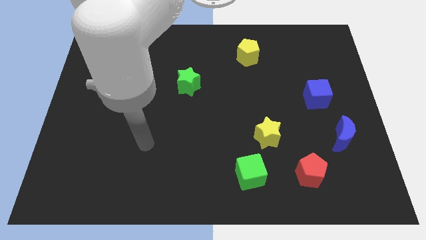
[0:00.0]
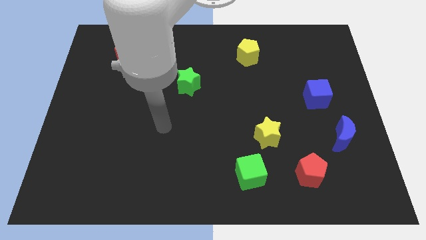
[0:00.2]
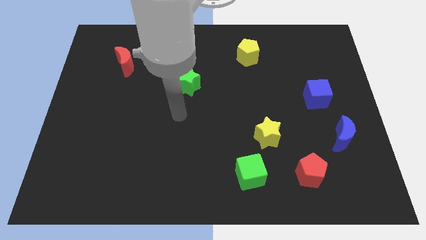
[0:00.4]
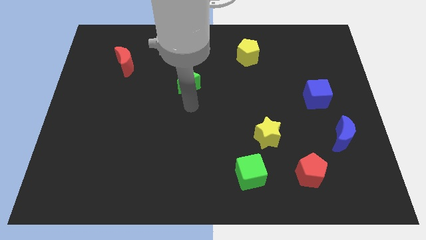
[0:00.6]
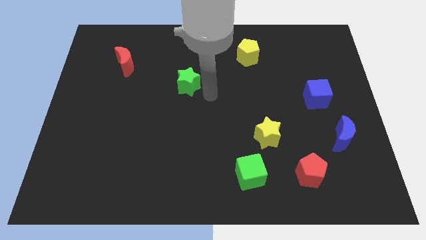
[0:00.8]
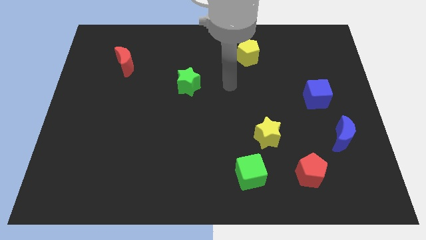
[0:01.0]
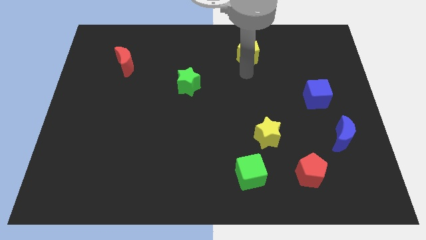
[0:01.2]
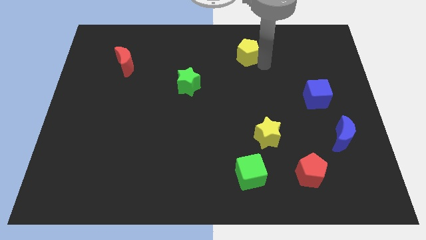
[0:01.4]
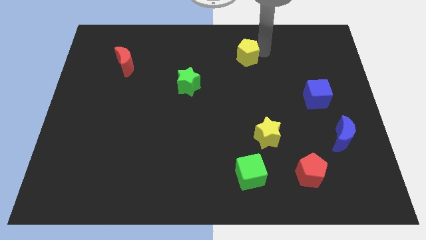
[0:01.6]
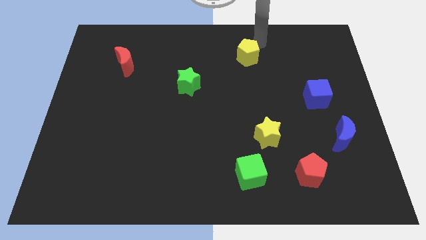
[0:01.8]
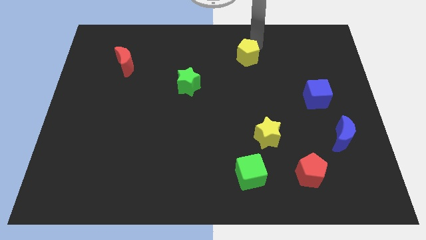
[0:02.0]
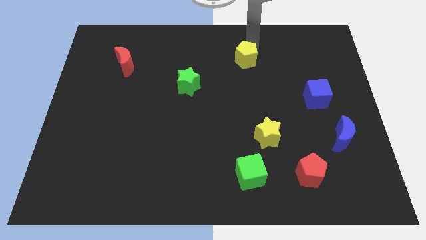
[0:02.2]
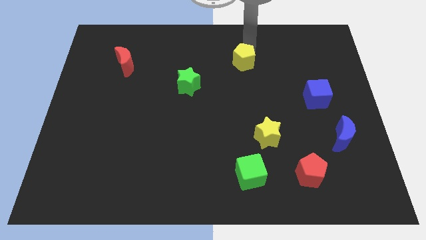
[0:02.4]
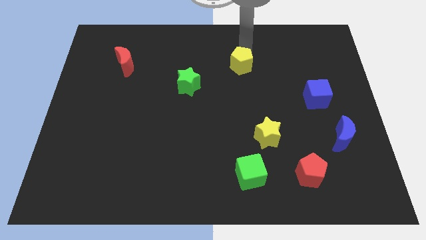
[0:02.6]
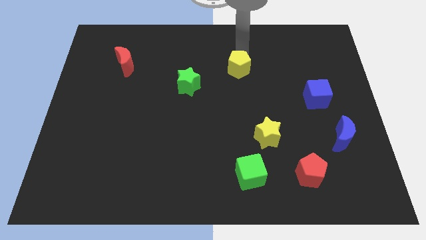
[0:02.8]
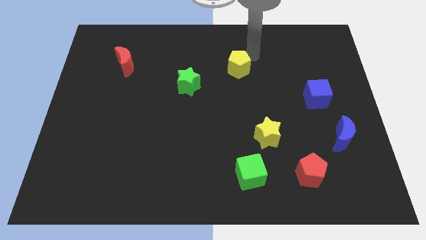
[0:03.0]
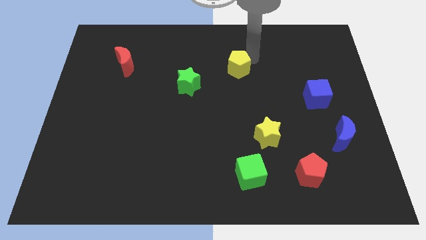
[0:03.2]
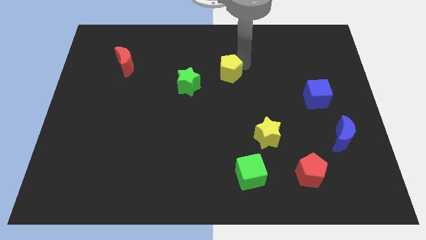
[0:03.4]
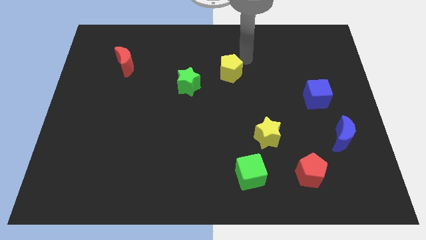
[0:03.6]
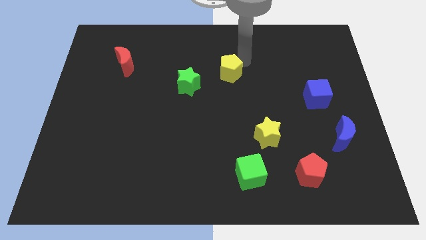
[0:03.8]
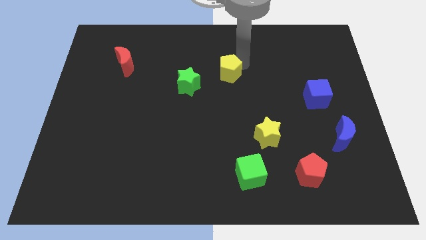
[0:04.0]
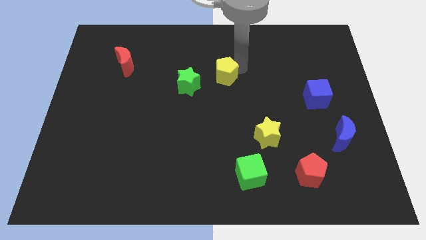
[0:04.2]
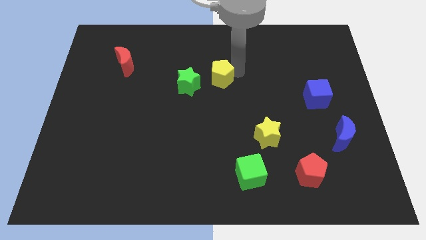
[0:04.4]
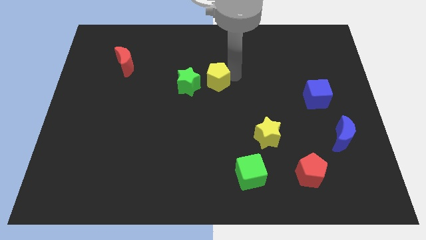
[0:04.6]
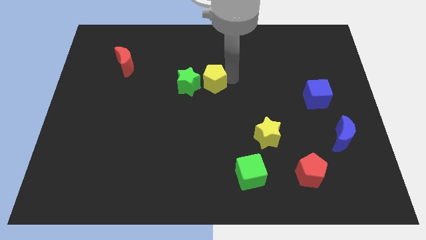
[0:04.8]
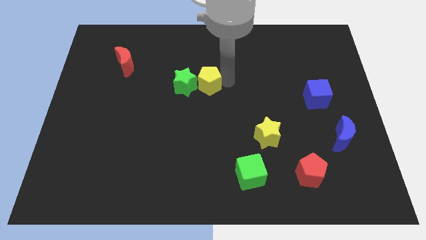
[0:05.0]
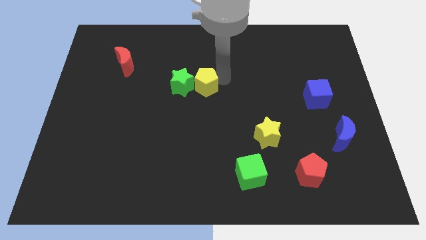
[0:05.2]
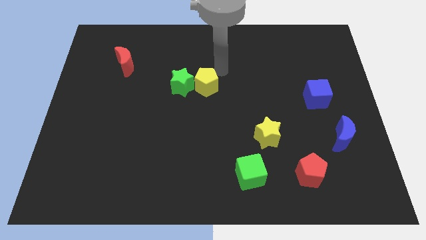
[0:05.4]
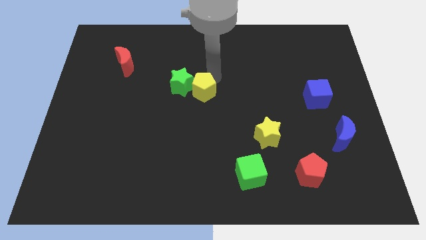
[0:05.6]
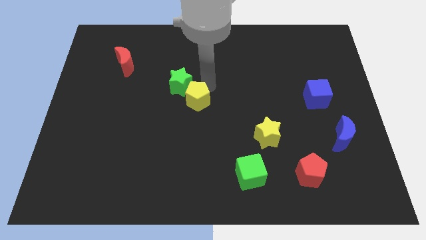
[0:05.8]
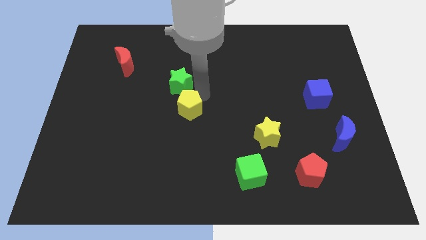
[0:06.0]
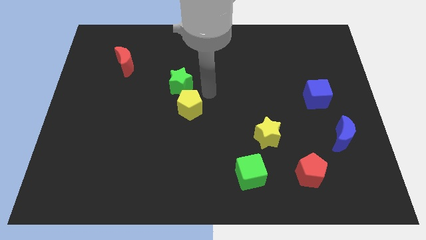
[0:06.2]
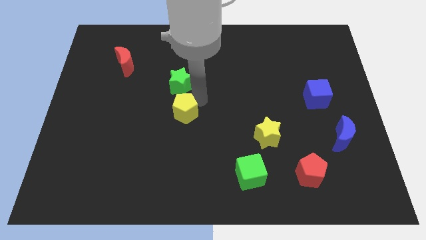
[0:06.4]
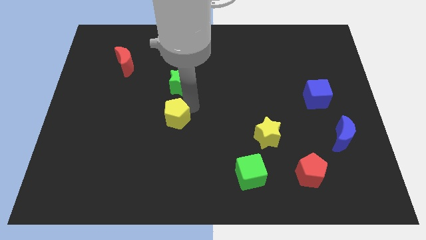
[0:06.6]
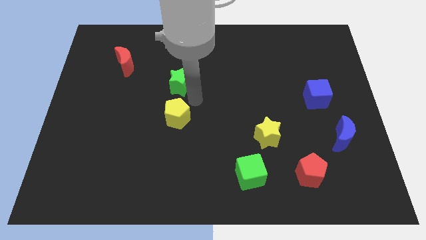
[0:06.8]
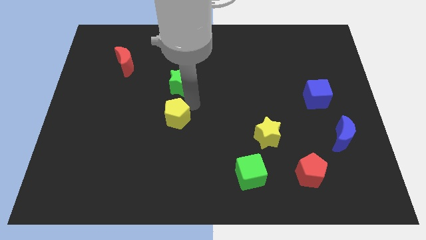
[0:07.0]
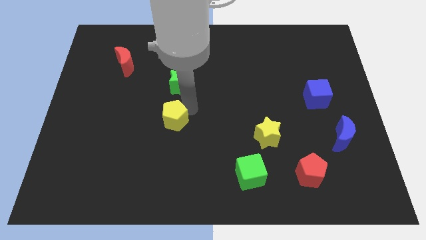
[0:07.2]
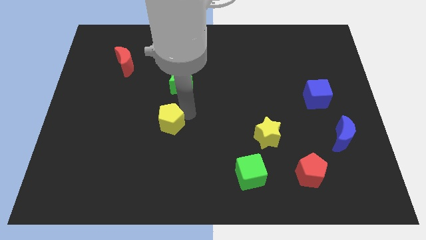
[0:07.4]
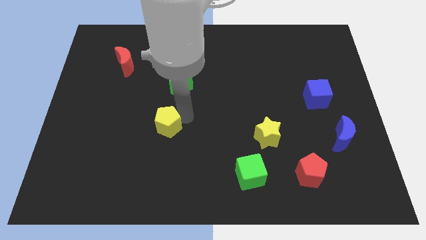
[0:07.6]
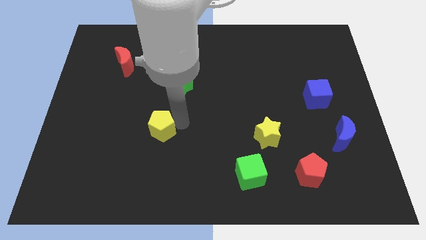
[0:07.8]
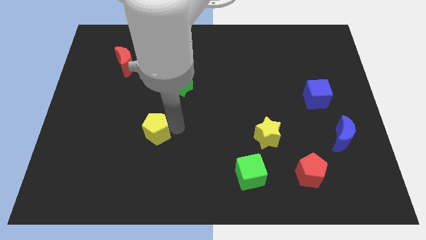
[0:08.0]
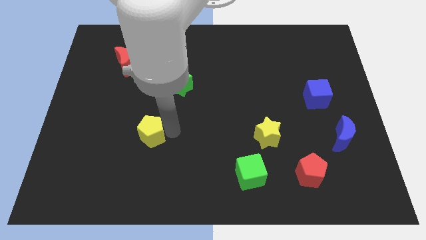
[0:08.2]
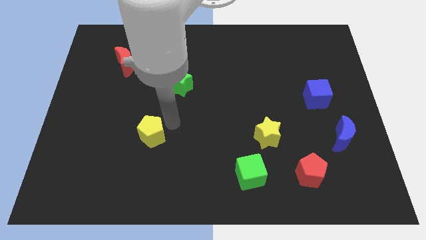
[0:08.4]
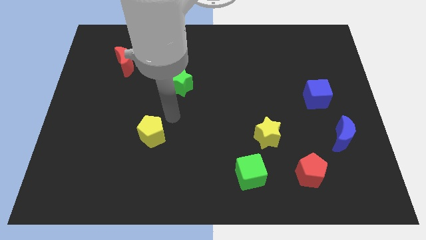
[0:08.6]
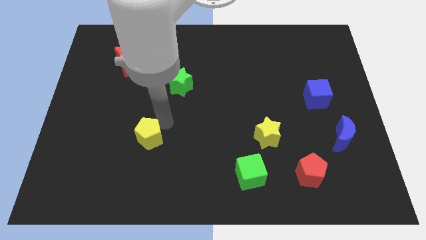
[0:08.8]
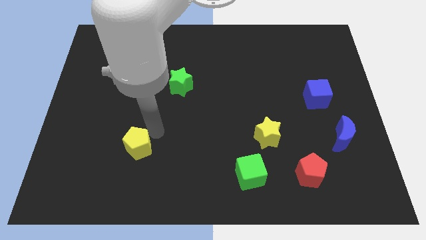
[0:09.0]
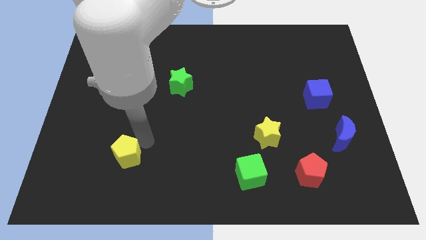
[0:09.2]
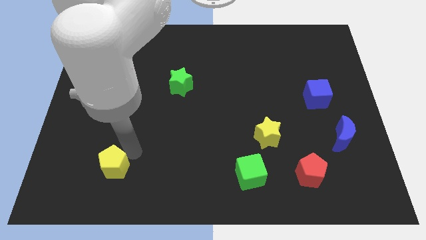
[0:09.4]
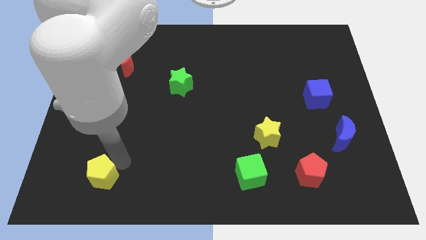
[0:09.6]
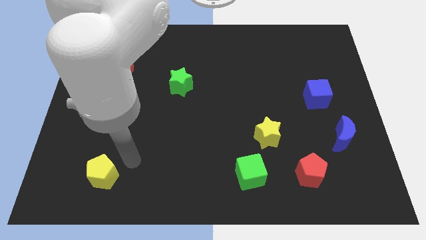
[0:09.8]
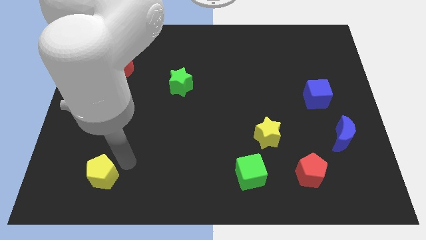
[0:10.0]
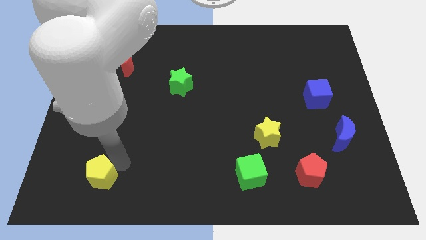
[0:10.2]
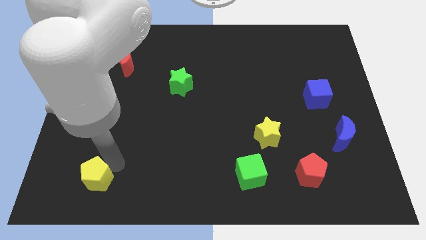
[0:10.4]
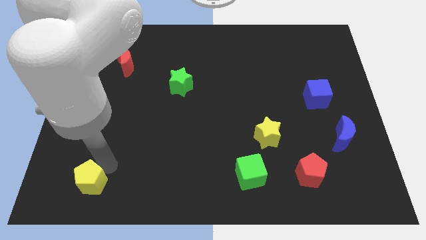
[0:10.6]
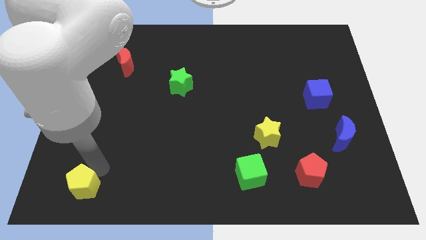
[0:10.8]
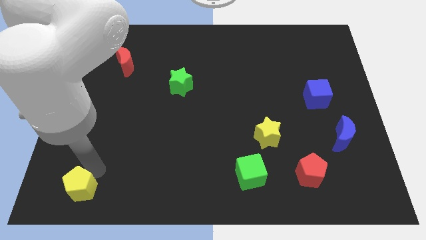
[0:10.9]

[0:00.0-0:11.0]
push the yellow pentagon to the bottom left

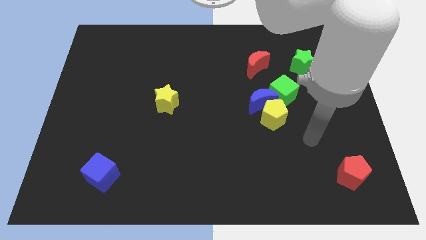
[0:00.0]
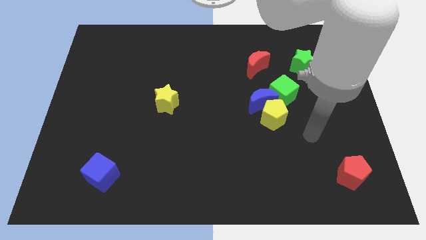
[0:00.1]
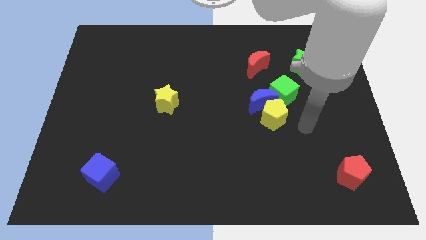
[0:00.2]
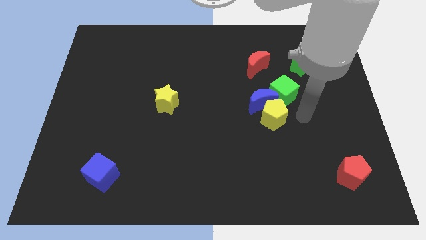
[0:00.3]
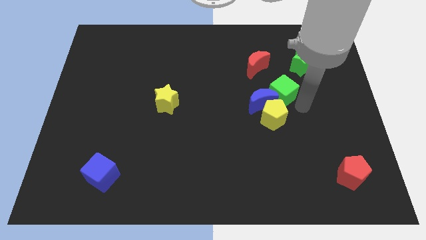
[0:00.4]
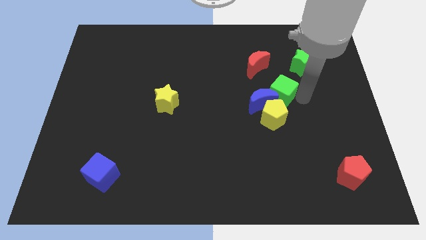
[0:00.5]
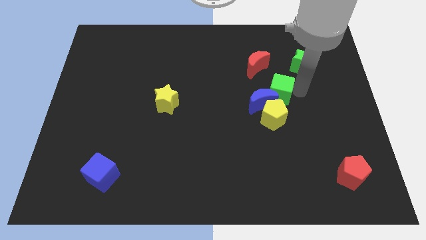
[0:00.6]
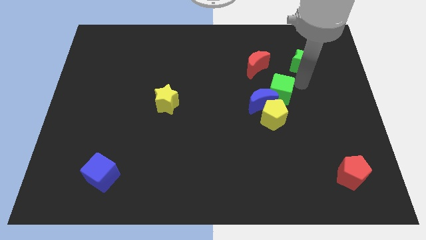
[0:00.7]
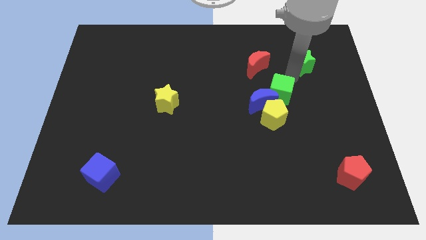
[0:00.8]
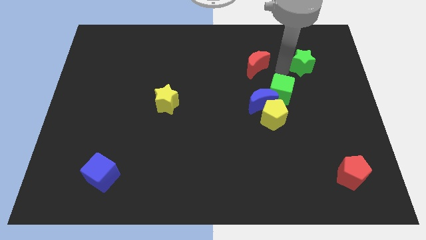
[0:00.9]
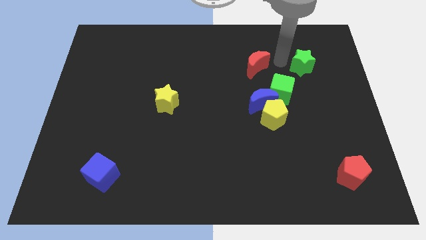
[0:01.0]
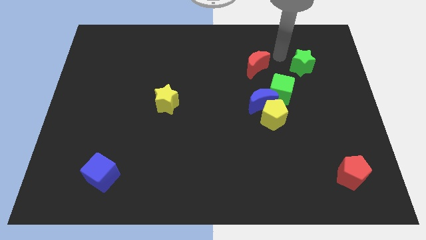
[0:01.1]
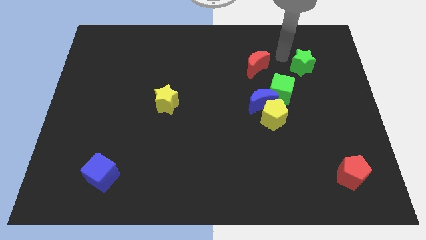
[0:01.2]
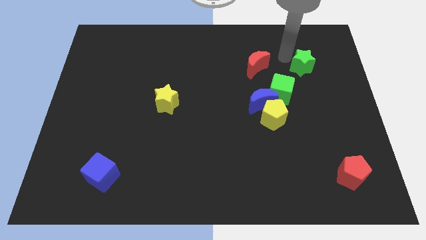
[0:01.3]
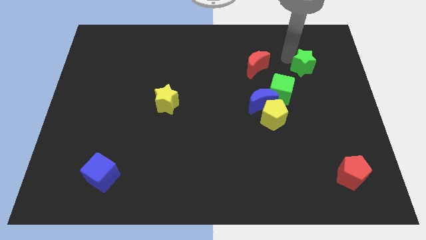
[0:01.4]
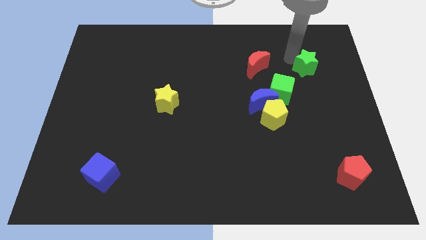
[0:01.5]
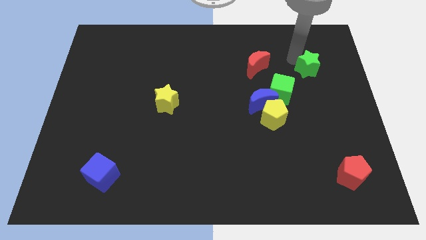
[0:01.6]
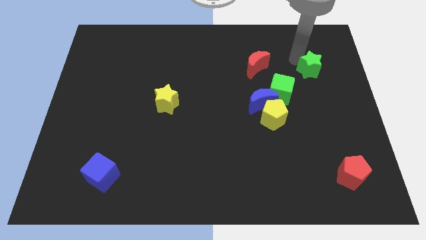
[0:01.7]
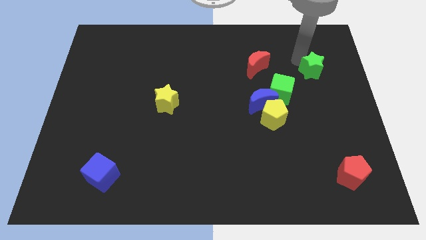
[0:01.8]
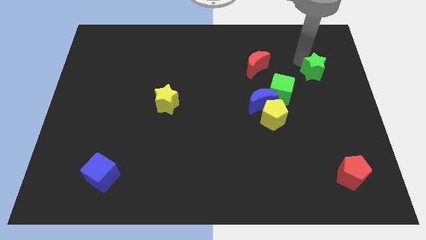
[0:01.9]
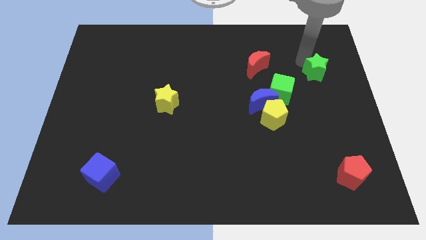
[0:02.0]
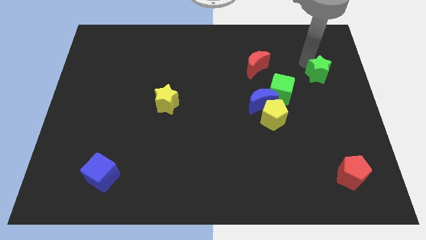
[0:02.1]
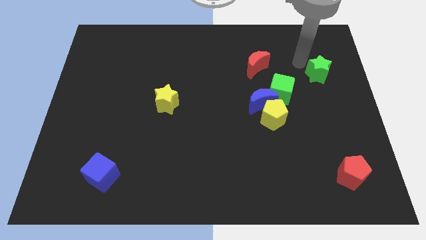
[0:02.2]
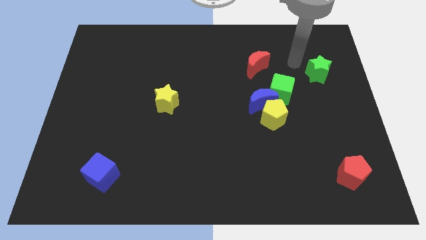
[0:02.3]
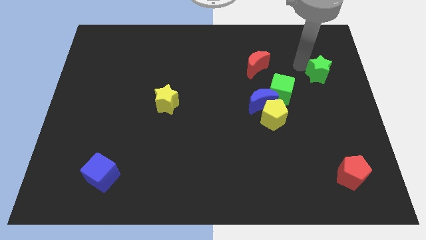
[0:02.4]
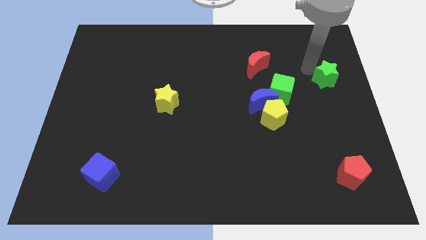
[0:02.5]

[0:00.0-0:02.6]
move the green star to the center right

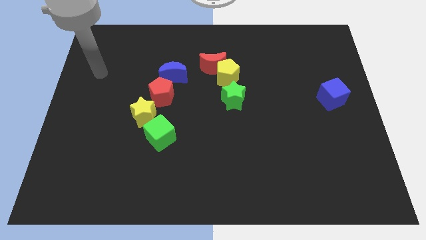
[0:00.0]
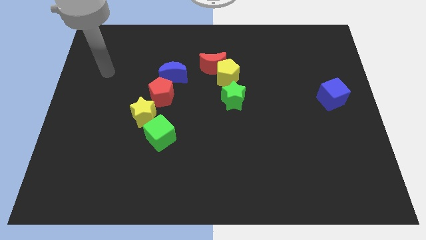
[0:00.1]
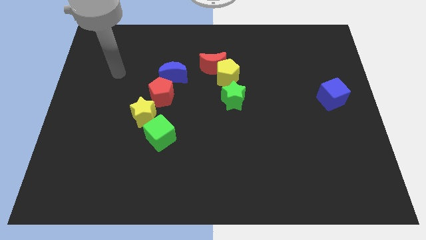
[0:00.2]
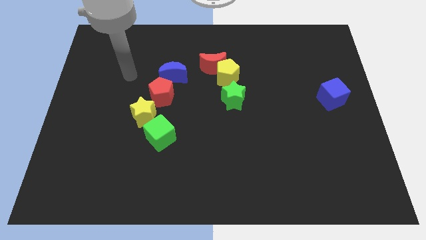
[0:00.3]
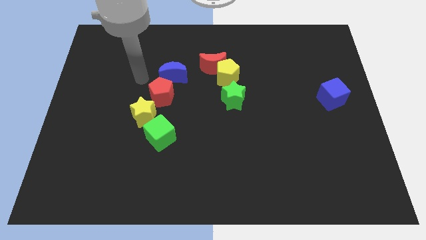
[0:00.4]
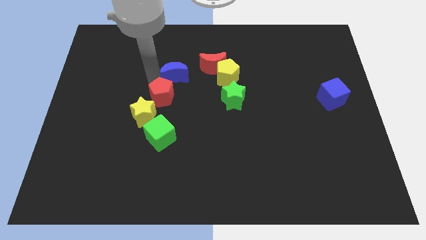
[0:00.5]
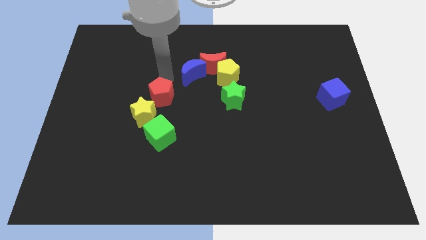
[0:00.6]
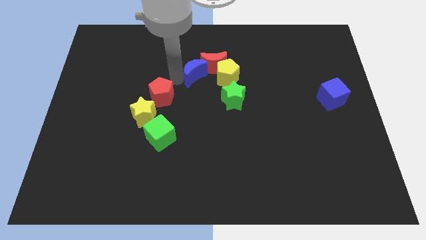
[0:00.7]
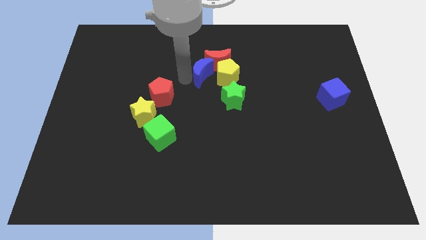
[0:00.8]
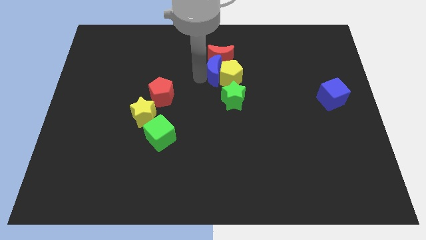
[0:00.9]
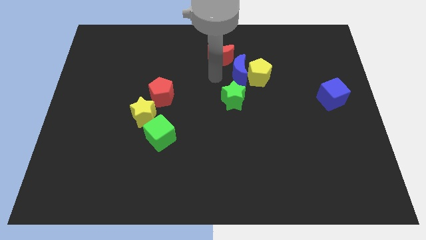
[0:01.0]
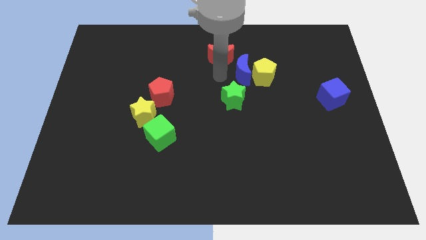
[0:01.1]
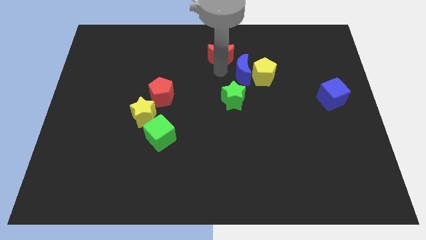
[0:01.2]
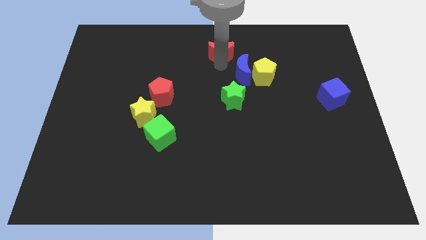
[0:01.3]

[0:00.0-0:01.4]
put the red moon to the top side
